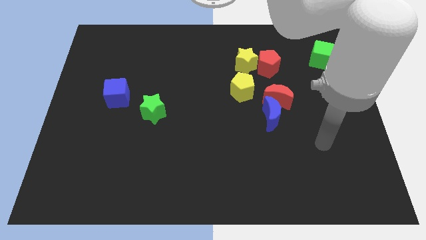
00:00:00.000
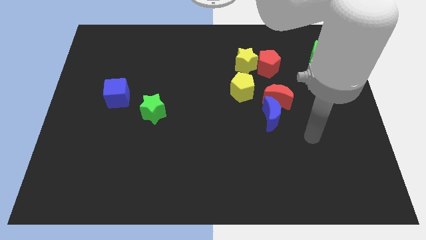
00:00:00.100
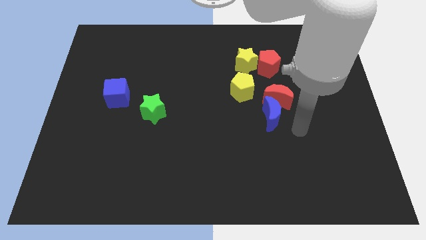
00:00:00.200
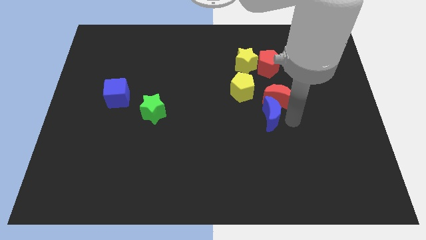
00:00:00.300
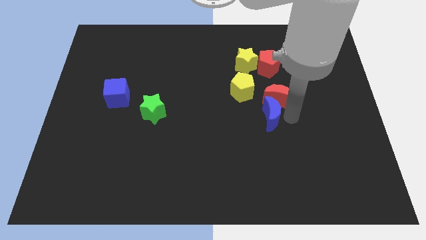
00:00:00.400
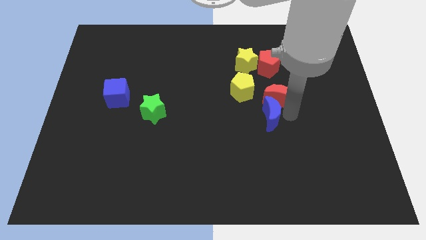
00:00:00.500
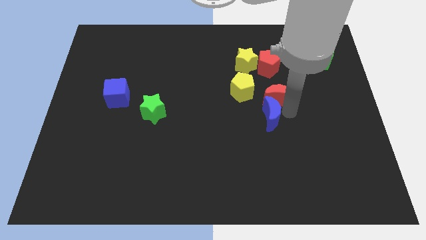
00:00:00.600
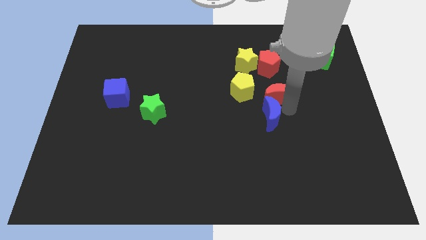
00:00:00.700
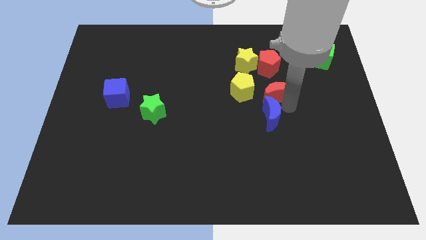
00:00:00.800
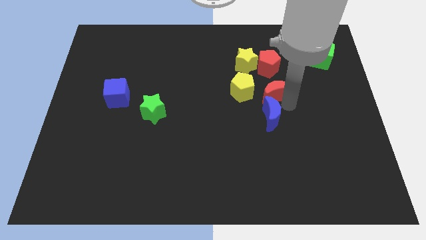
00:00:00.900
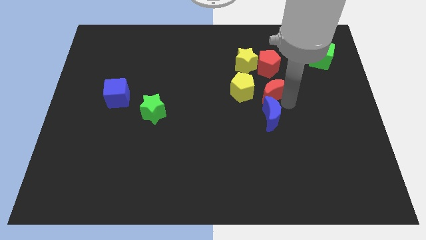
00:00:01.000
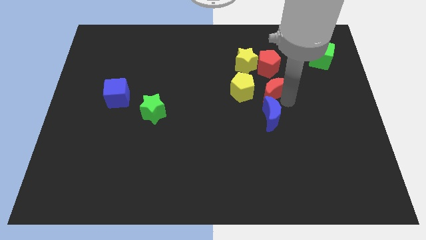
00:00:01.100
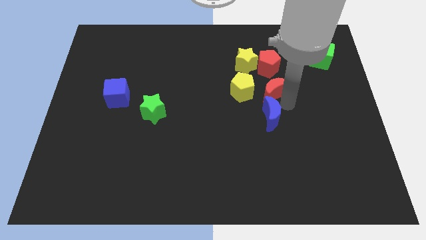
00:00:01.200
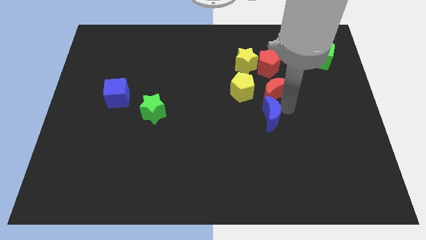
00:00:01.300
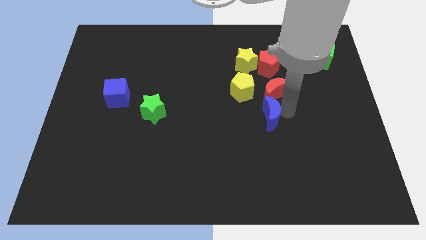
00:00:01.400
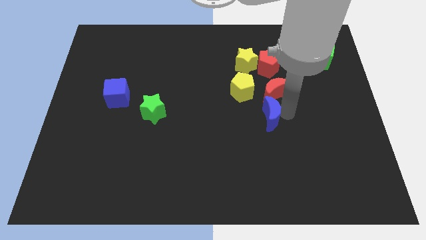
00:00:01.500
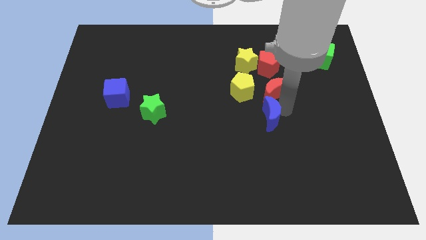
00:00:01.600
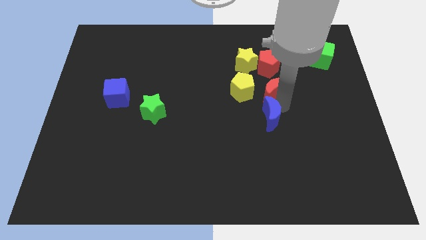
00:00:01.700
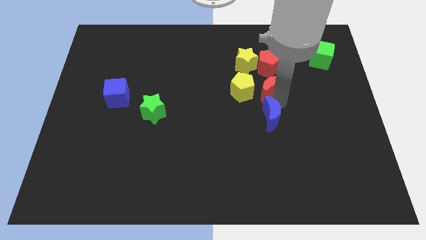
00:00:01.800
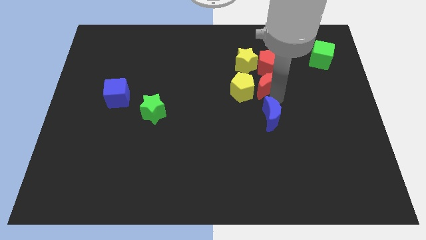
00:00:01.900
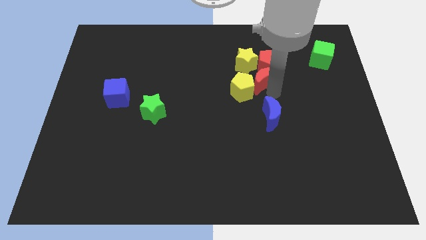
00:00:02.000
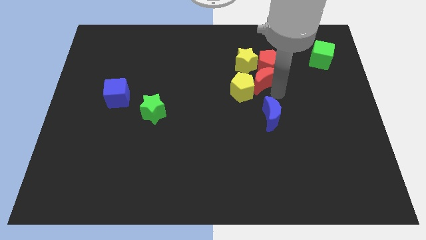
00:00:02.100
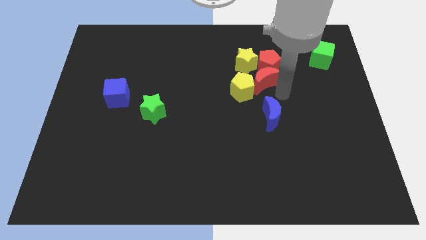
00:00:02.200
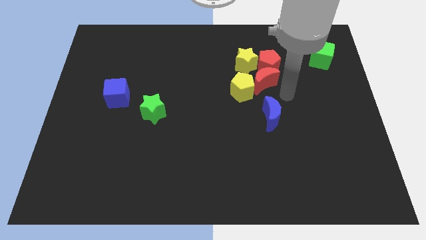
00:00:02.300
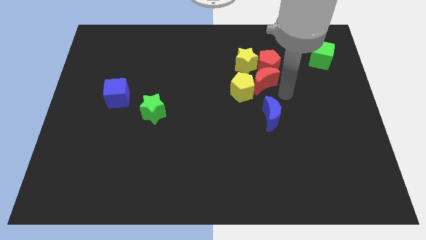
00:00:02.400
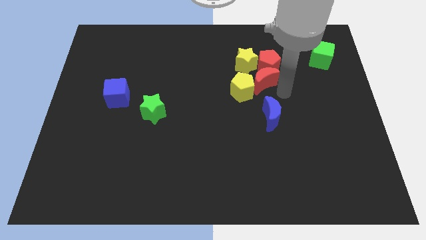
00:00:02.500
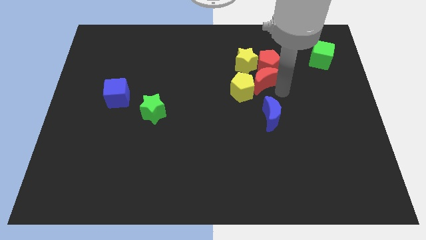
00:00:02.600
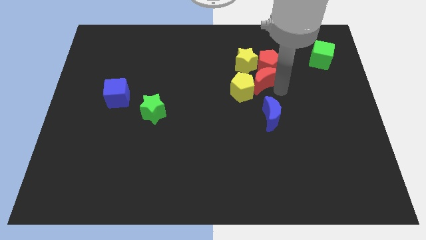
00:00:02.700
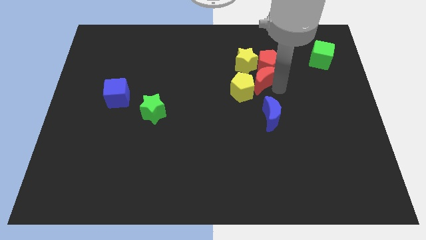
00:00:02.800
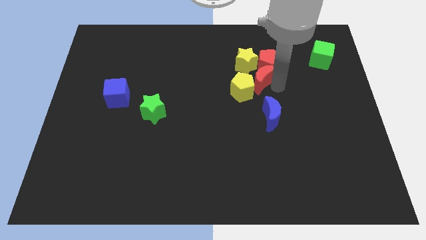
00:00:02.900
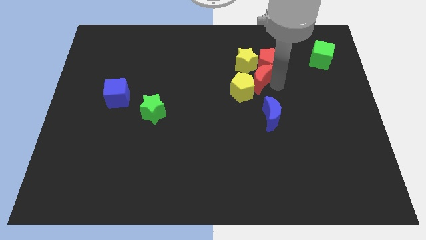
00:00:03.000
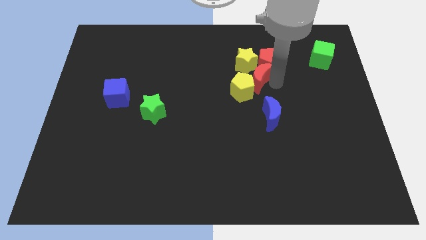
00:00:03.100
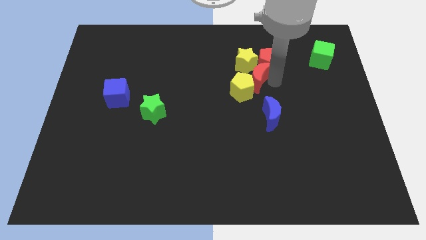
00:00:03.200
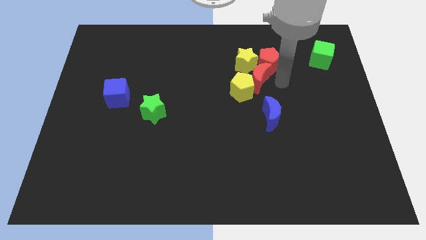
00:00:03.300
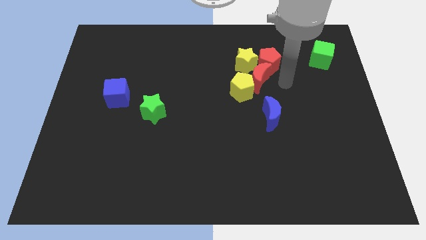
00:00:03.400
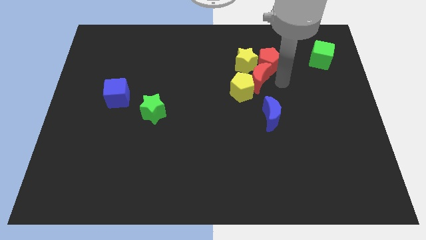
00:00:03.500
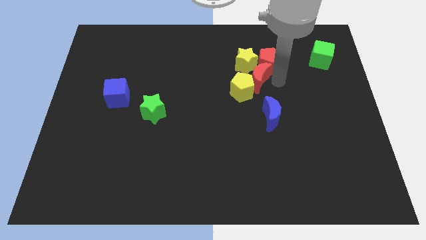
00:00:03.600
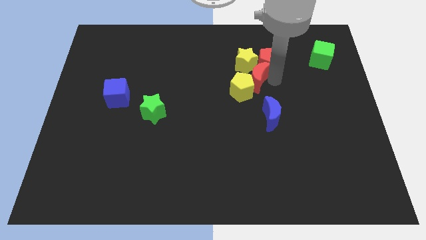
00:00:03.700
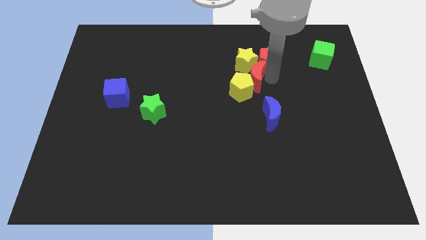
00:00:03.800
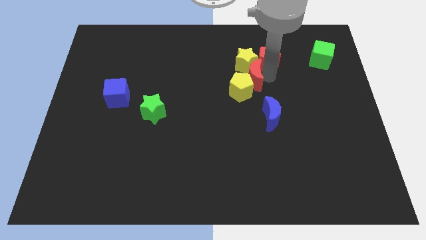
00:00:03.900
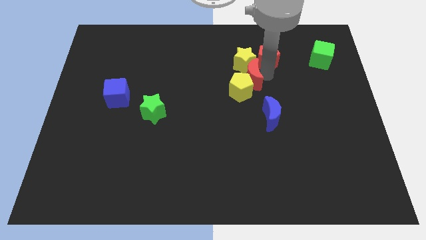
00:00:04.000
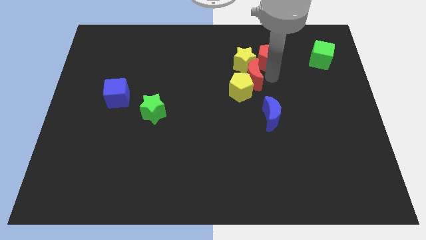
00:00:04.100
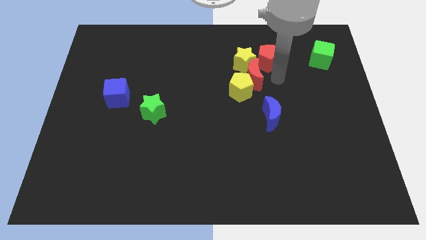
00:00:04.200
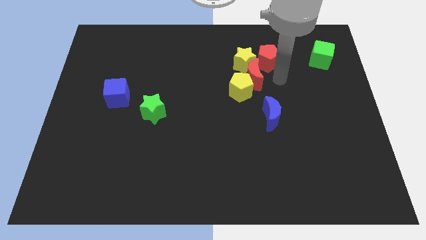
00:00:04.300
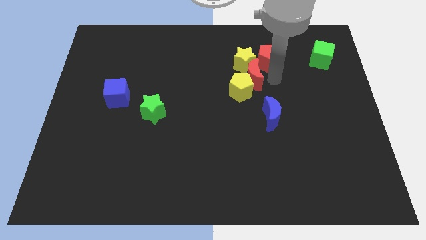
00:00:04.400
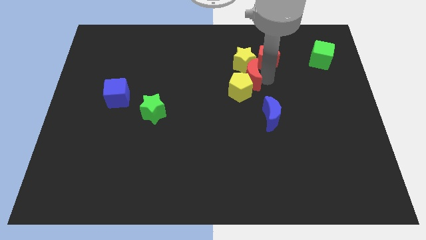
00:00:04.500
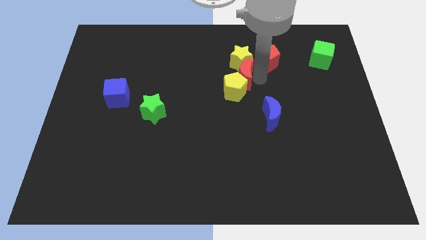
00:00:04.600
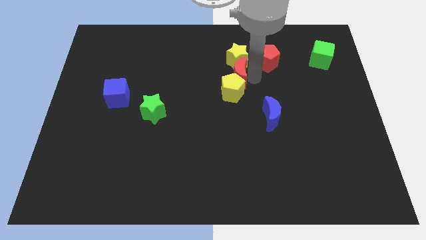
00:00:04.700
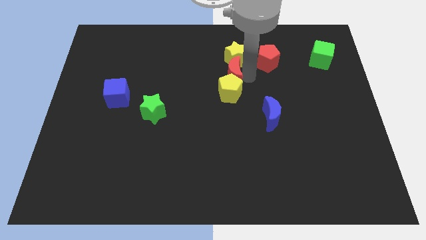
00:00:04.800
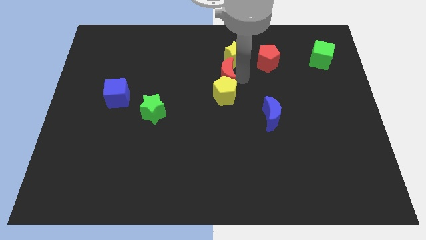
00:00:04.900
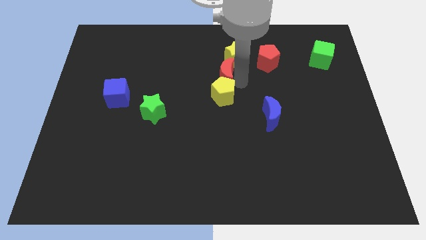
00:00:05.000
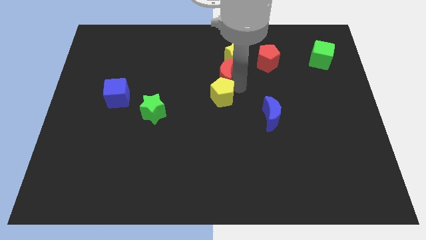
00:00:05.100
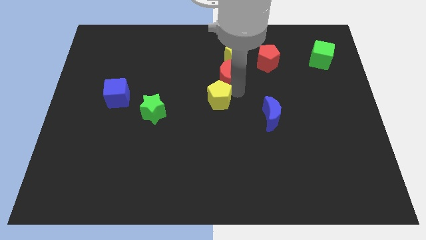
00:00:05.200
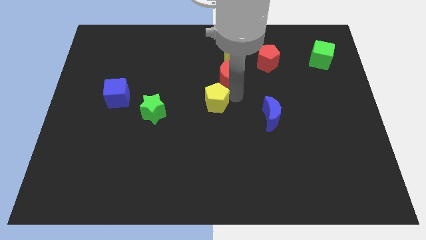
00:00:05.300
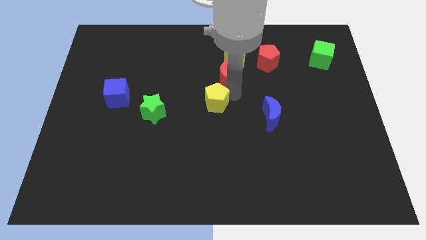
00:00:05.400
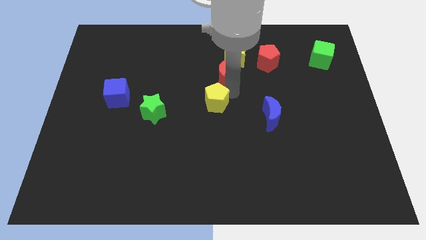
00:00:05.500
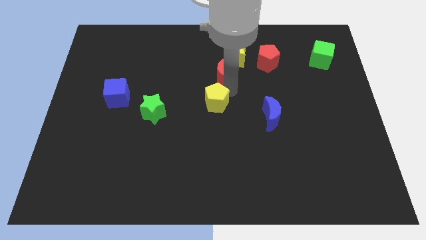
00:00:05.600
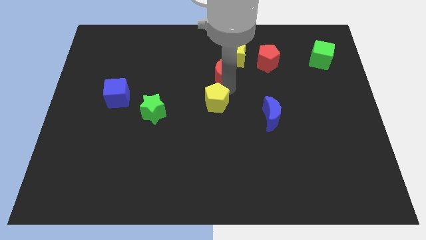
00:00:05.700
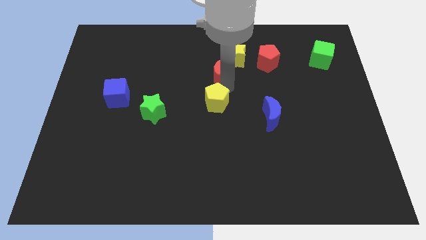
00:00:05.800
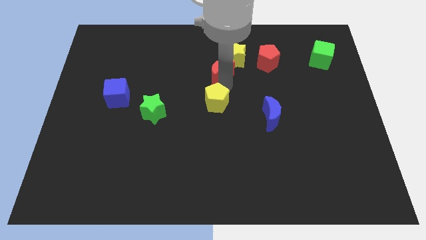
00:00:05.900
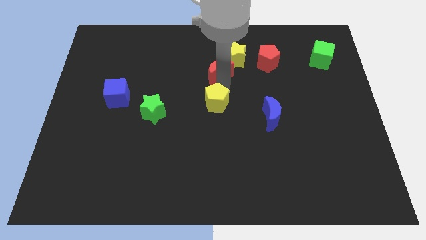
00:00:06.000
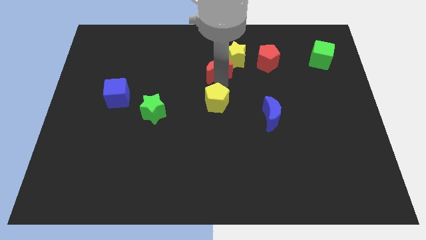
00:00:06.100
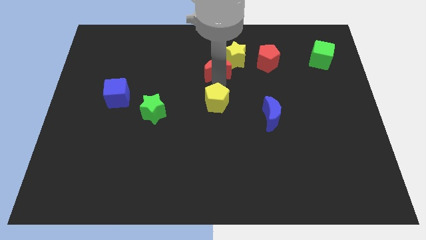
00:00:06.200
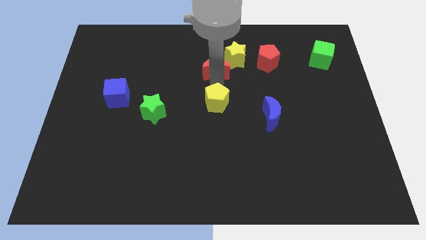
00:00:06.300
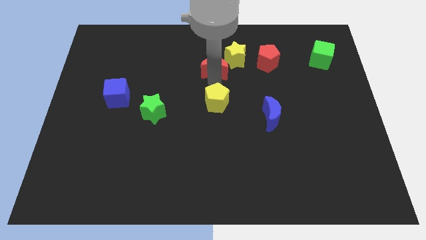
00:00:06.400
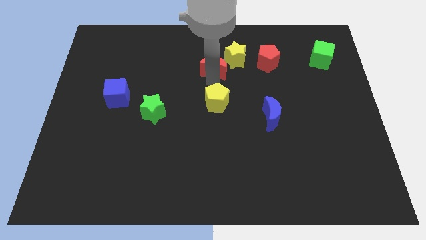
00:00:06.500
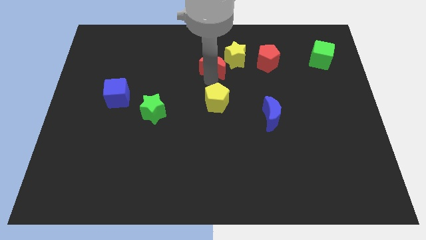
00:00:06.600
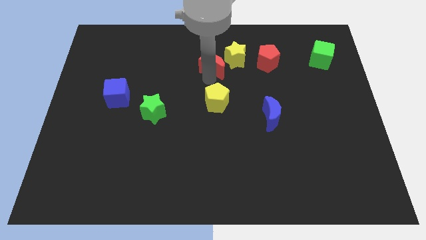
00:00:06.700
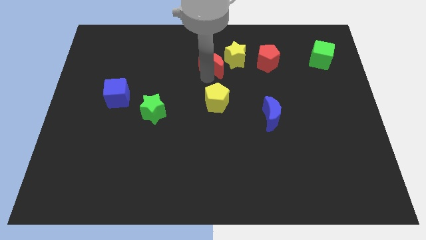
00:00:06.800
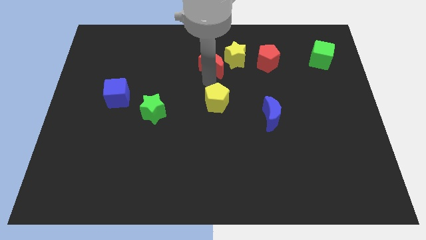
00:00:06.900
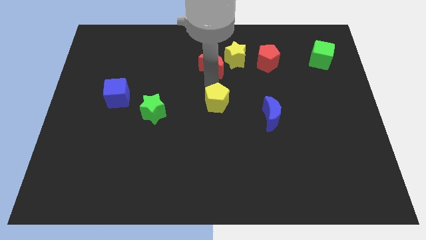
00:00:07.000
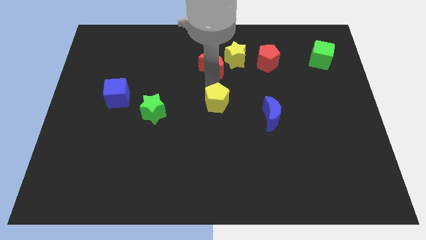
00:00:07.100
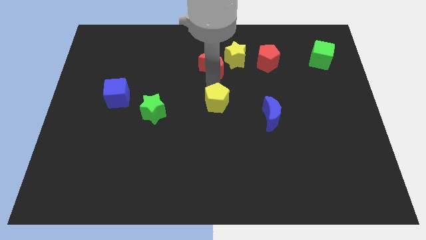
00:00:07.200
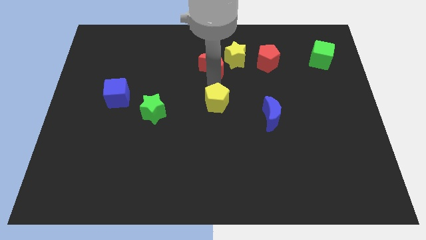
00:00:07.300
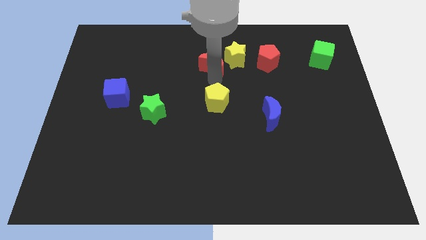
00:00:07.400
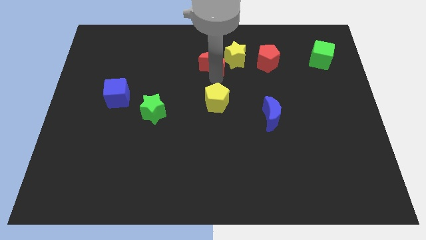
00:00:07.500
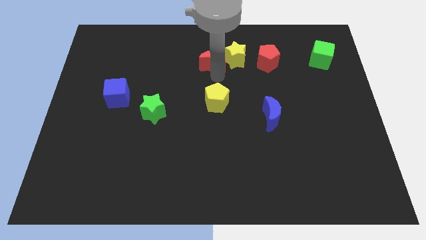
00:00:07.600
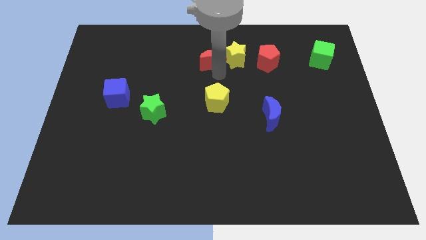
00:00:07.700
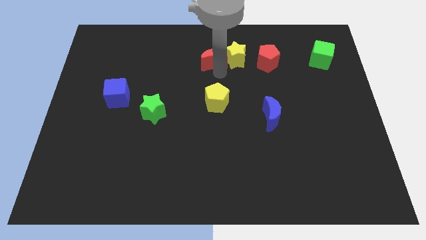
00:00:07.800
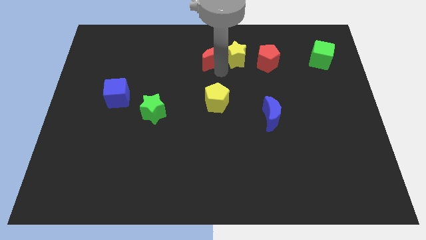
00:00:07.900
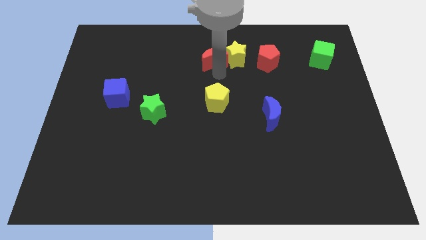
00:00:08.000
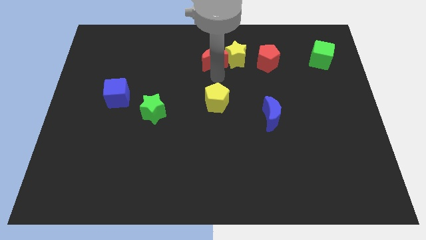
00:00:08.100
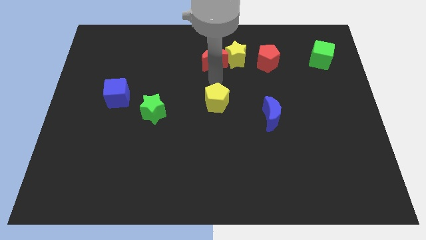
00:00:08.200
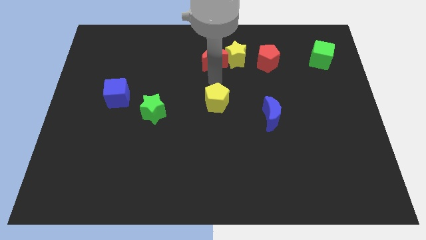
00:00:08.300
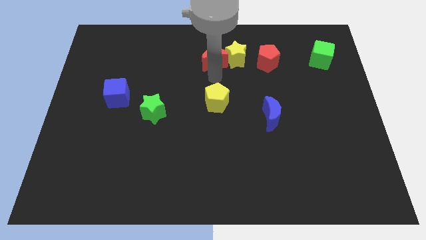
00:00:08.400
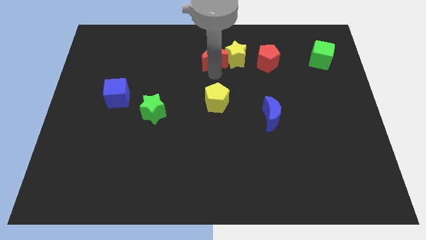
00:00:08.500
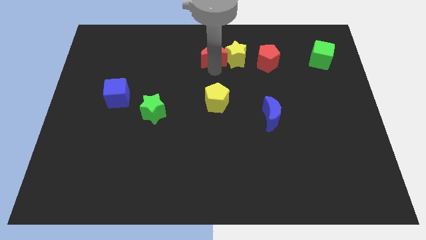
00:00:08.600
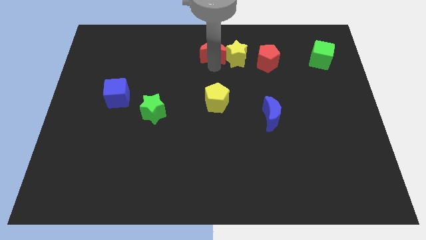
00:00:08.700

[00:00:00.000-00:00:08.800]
move the red moon to the top side
